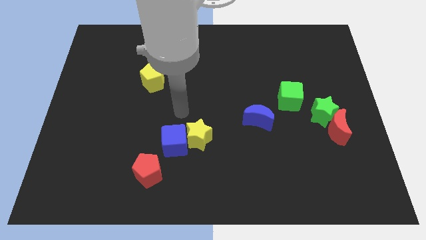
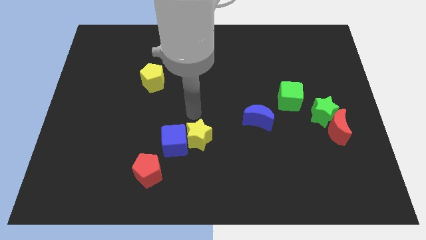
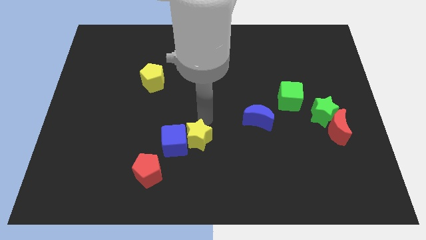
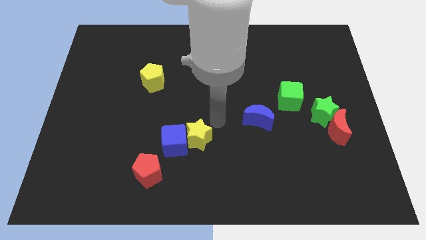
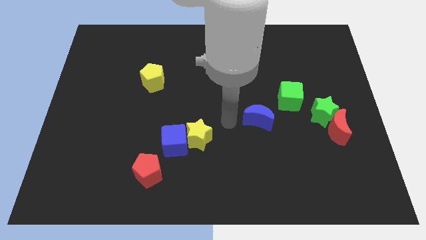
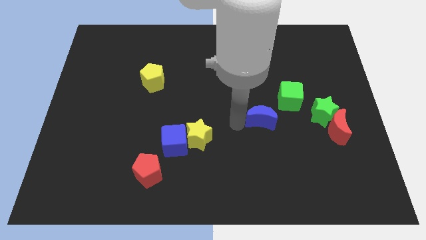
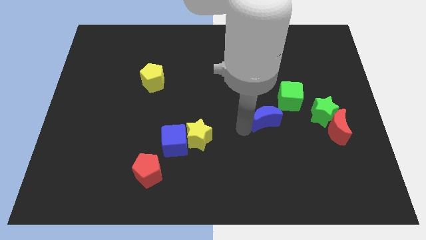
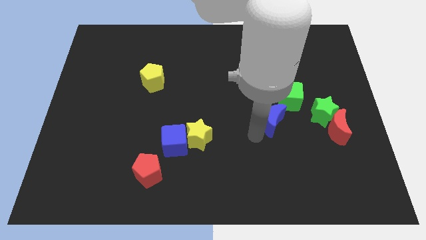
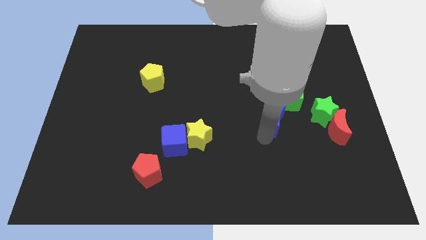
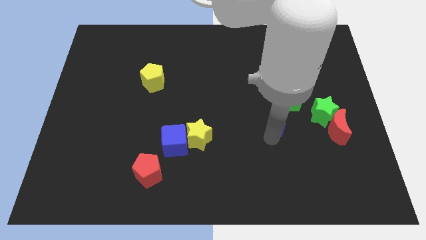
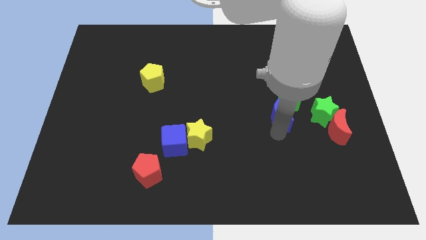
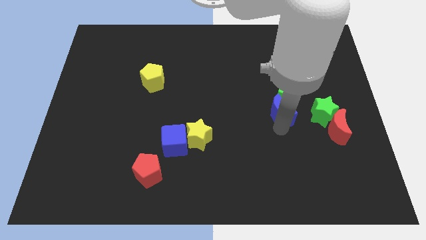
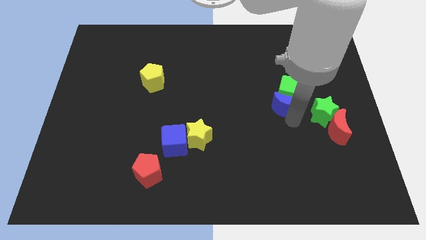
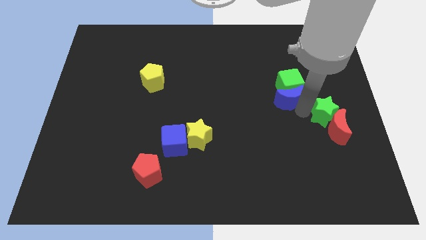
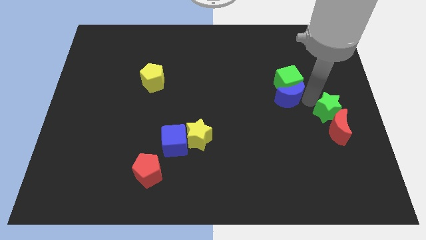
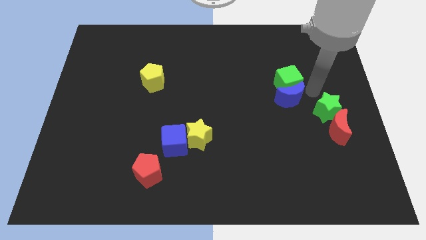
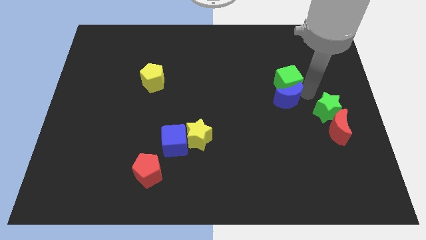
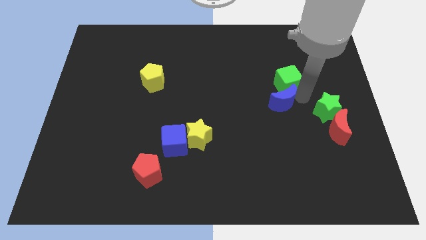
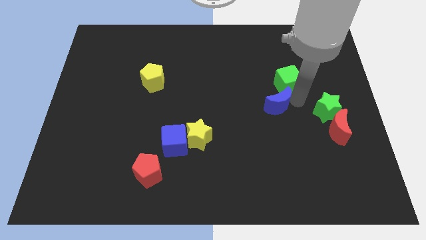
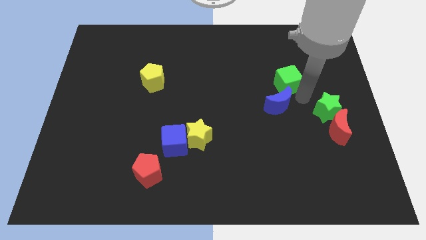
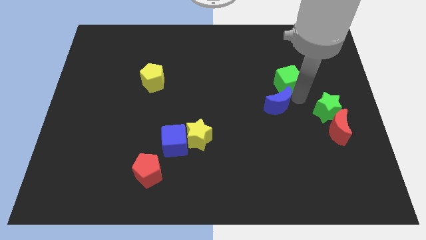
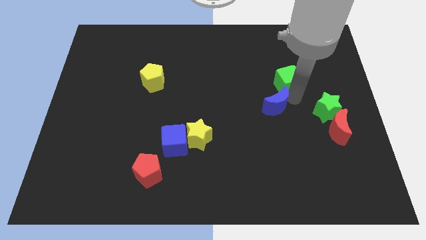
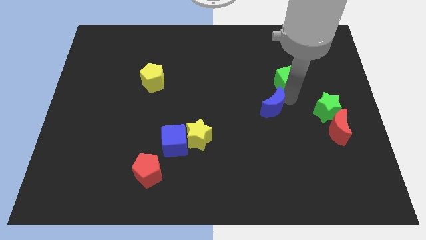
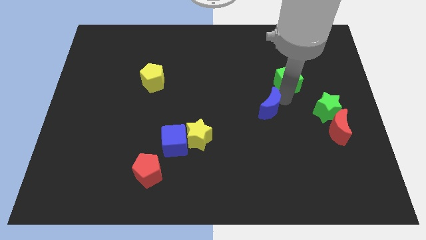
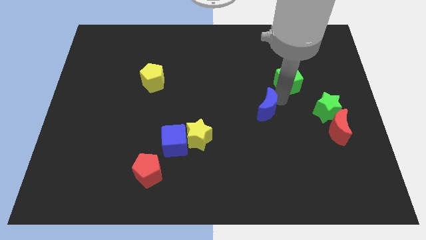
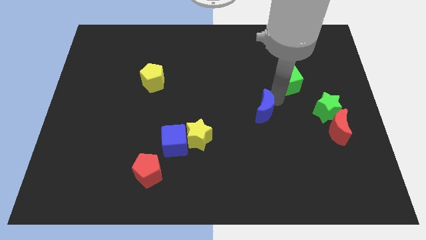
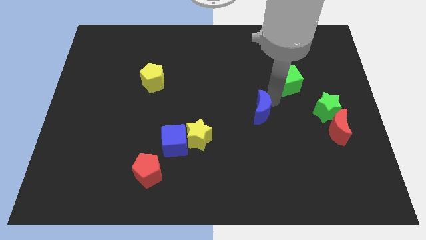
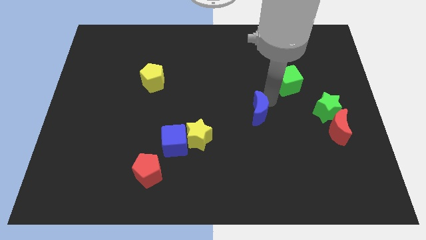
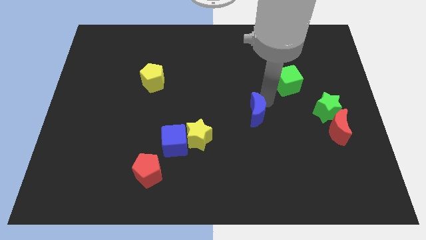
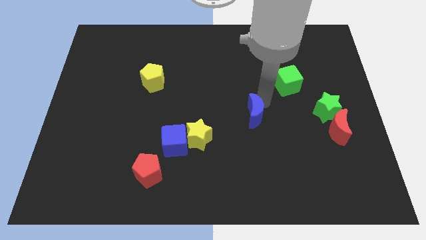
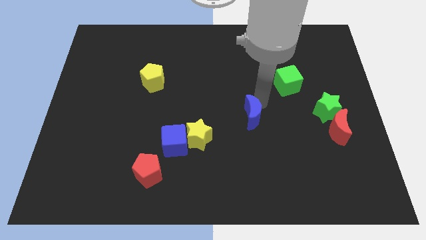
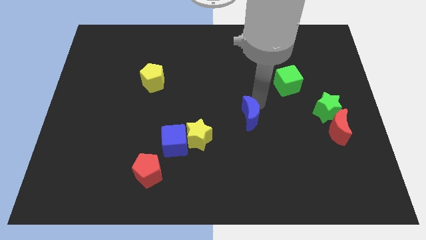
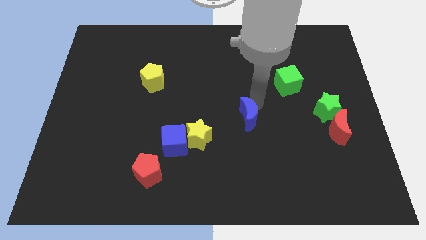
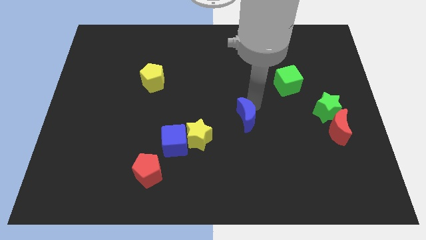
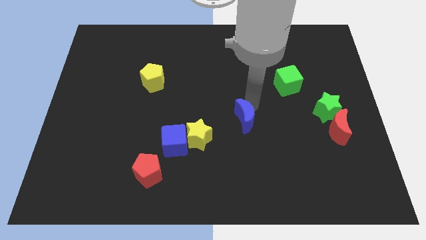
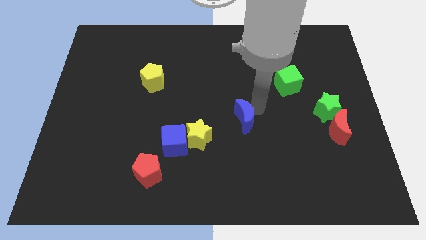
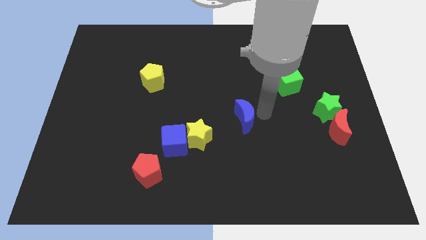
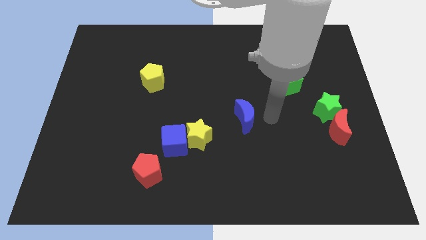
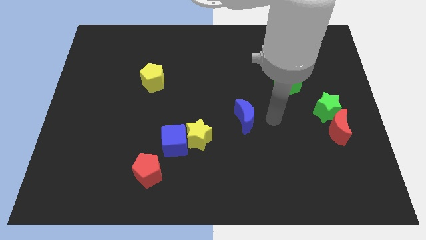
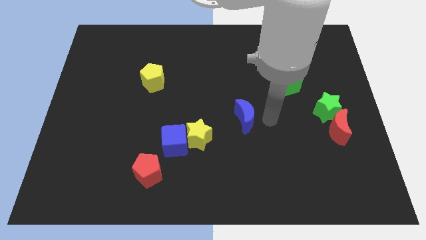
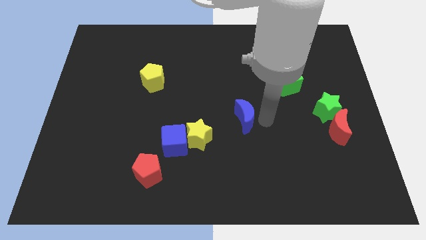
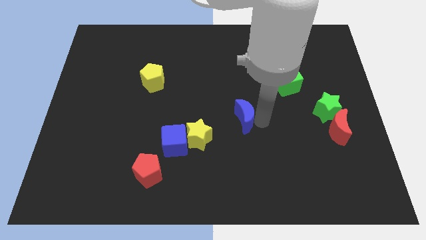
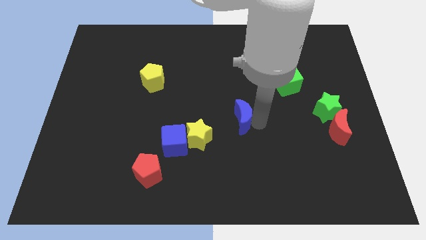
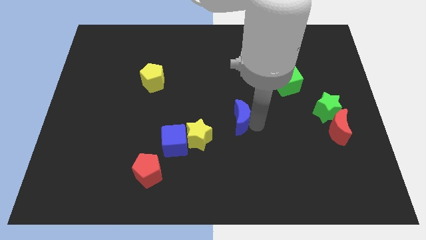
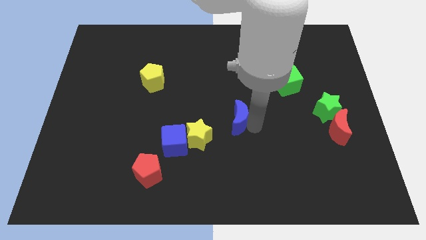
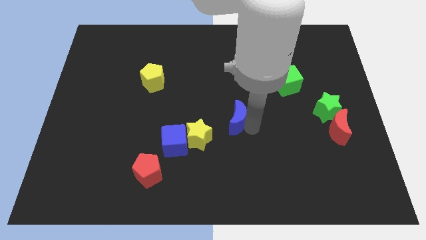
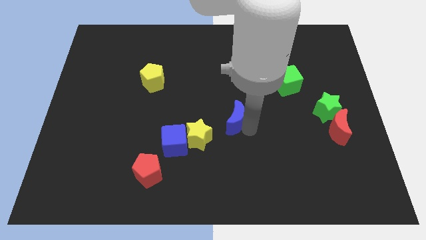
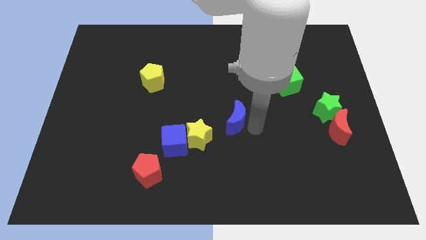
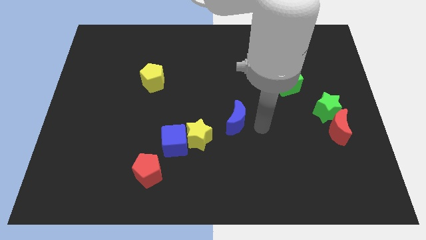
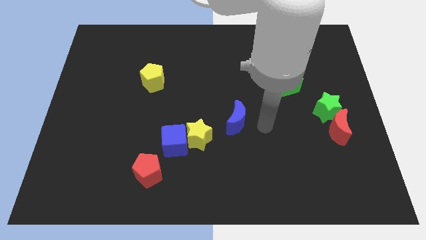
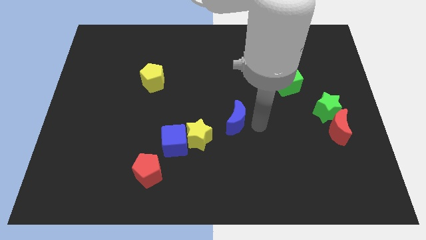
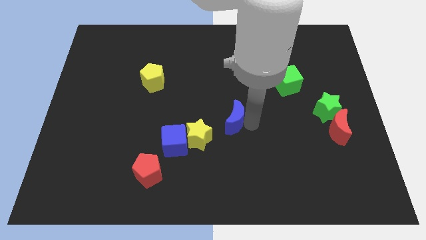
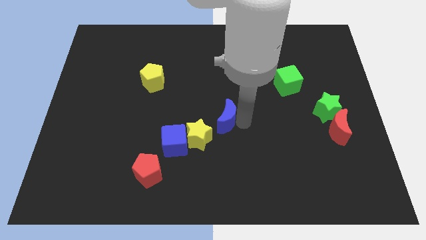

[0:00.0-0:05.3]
slightly push the blue moon left

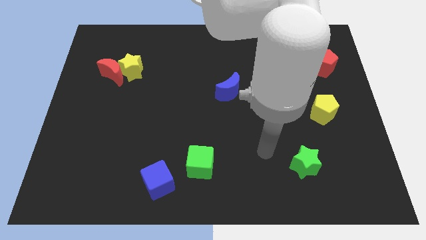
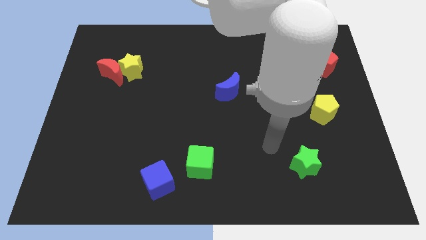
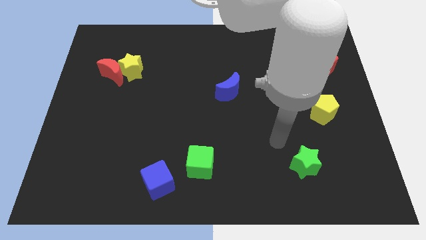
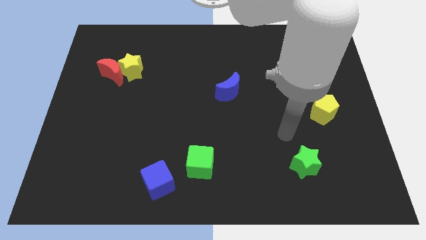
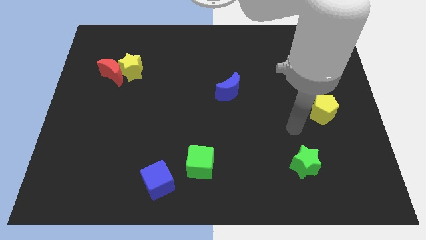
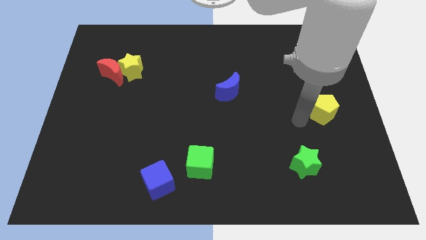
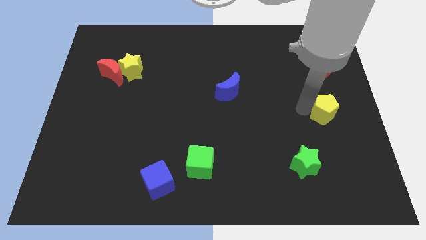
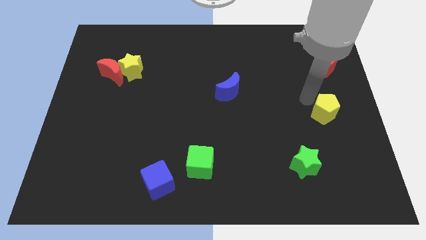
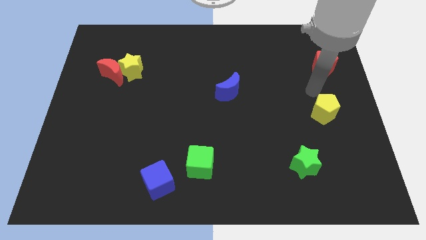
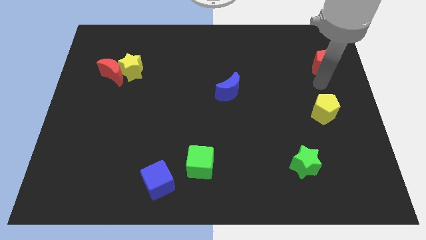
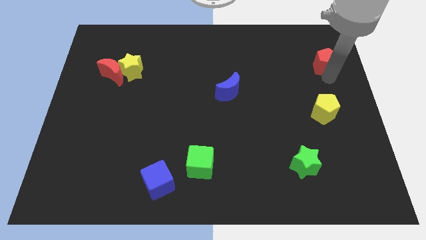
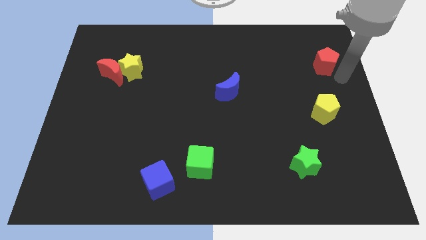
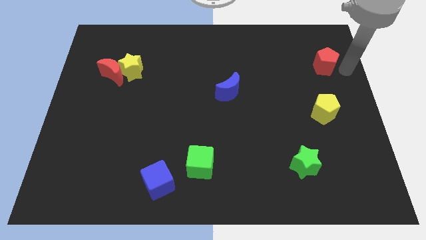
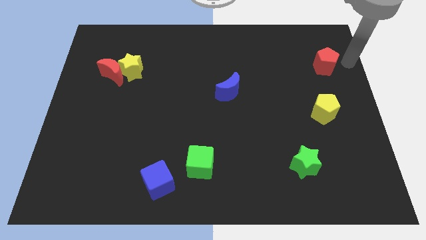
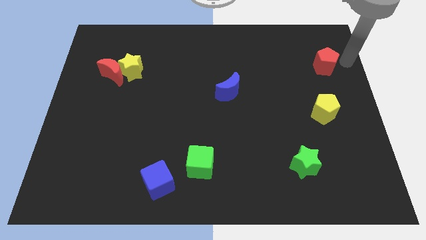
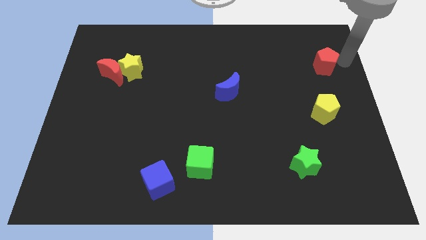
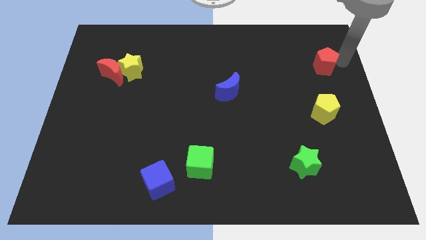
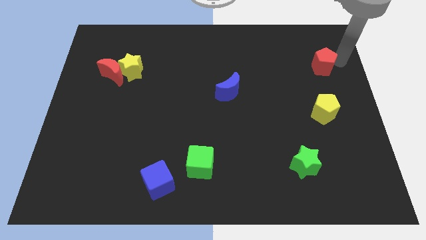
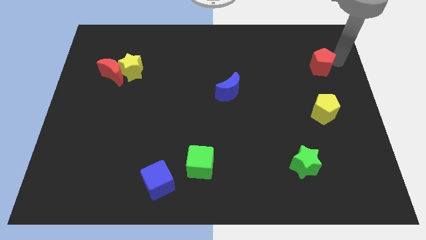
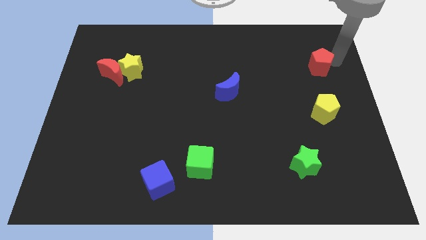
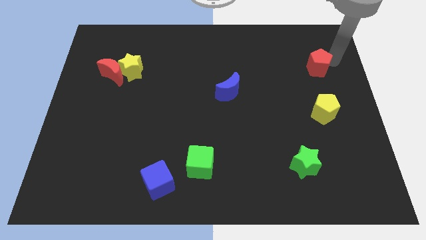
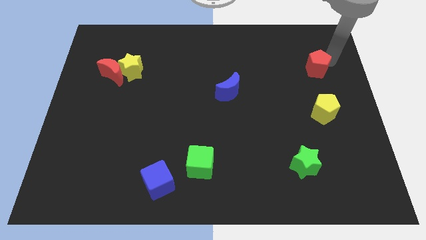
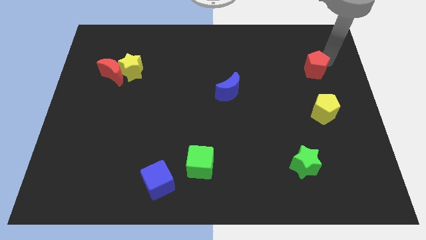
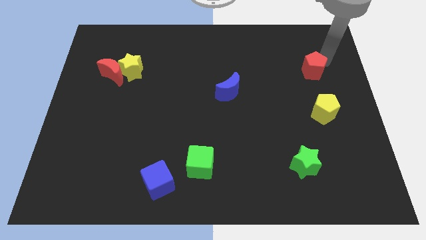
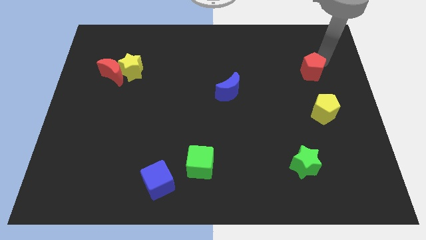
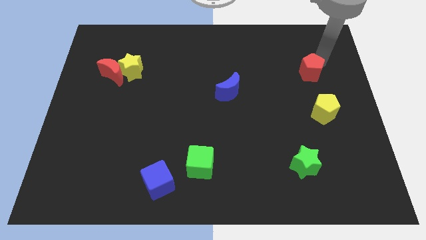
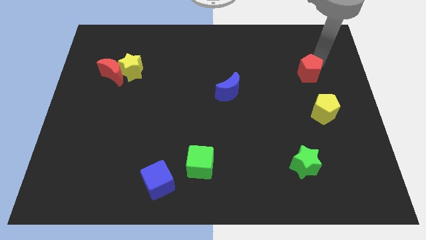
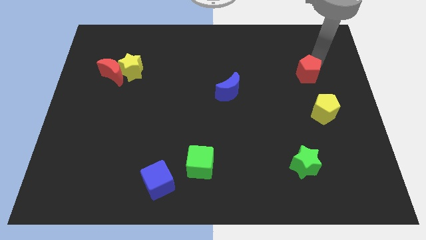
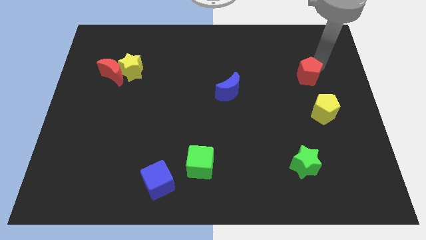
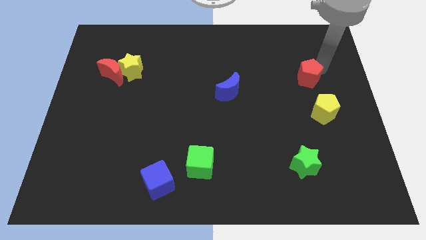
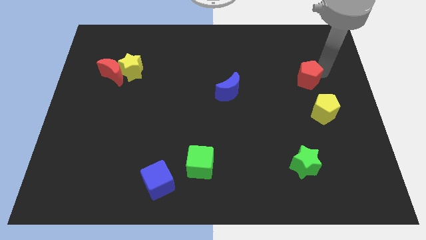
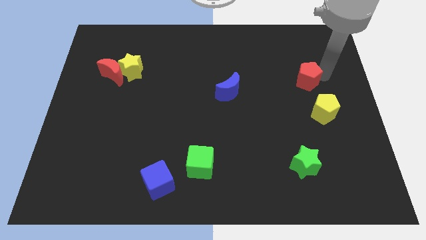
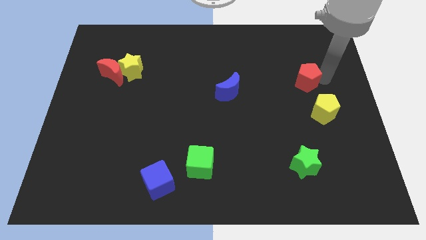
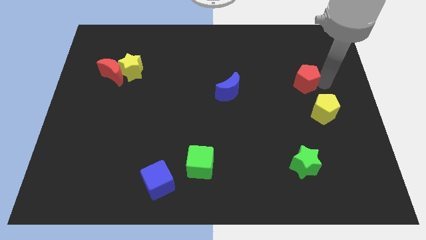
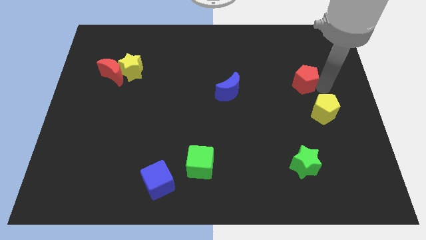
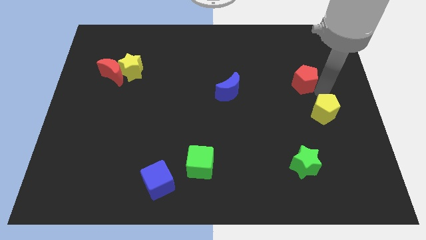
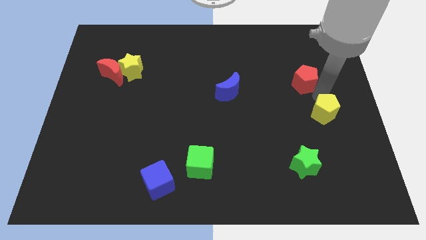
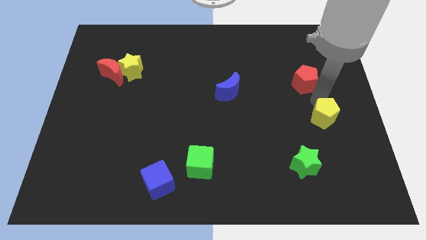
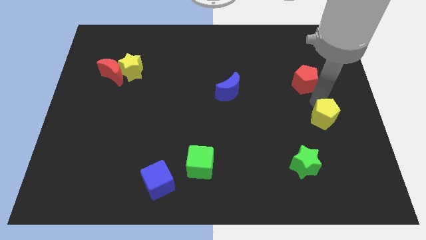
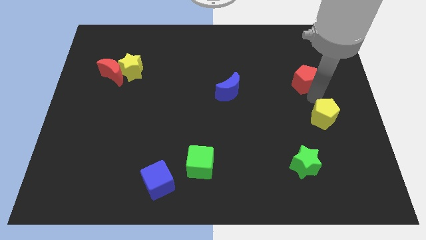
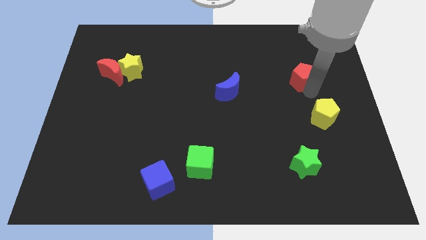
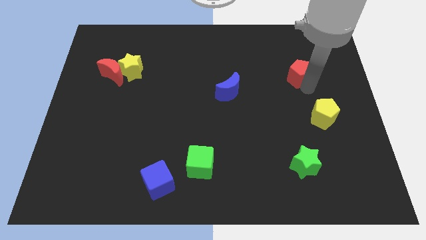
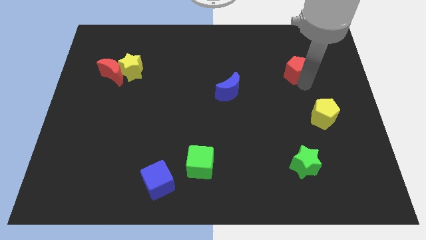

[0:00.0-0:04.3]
move the red pentagon somewhat left
